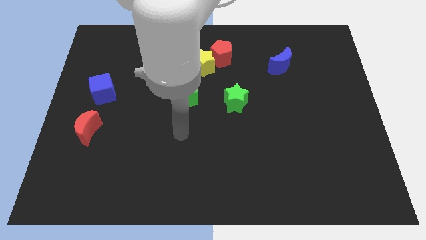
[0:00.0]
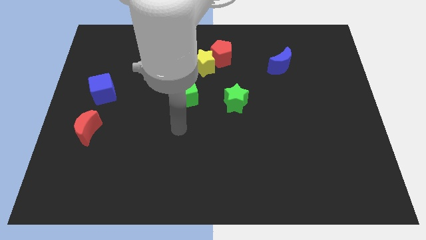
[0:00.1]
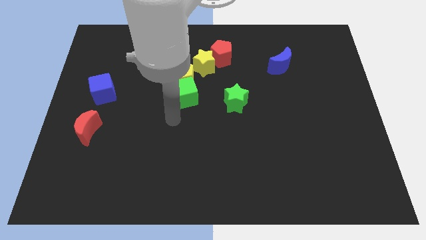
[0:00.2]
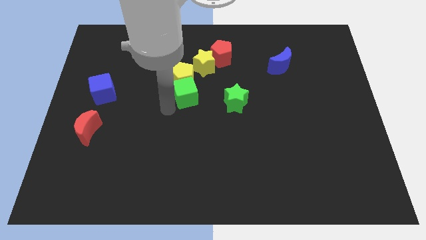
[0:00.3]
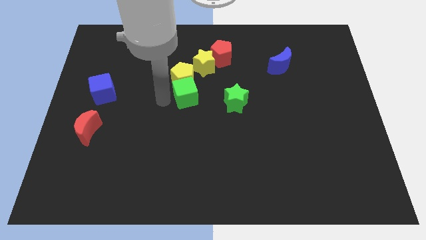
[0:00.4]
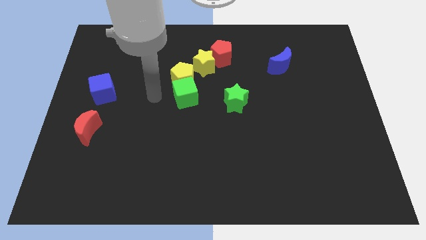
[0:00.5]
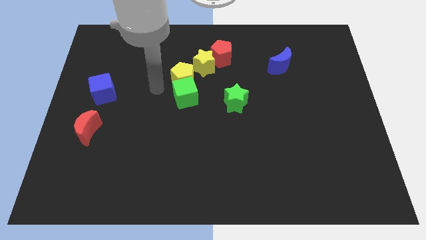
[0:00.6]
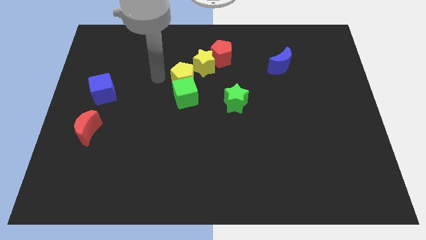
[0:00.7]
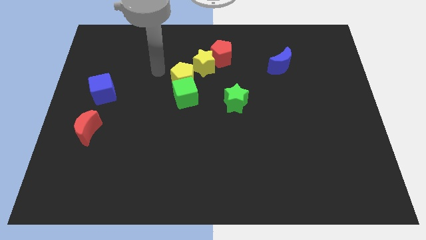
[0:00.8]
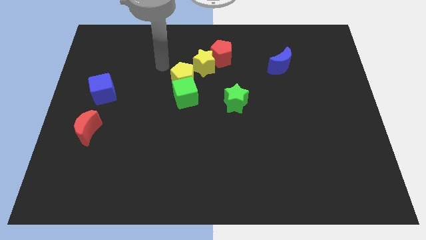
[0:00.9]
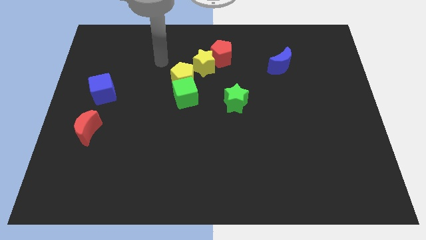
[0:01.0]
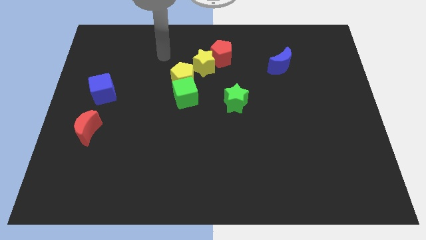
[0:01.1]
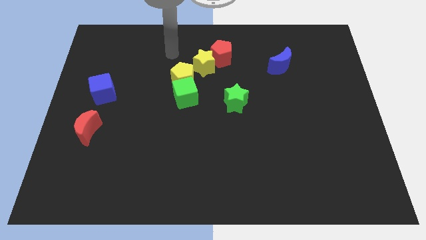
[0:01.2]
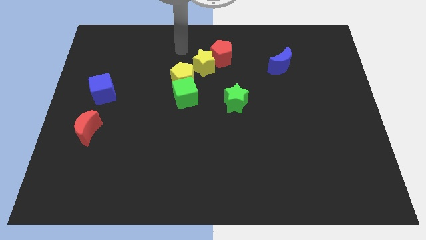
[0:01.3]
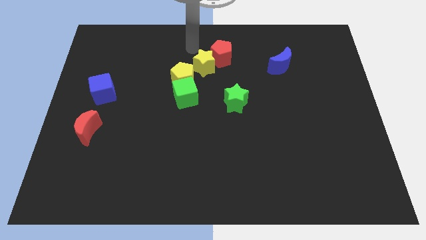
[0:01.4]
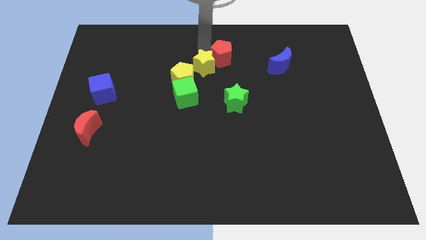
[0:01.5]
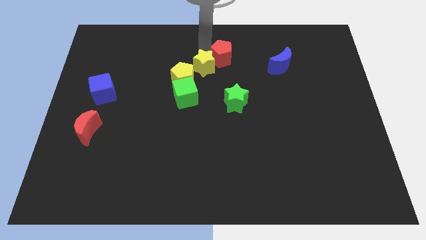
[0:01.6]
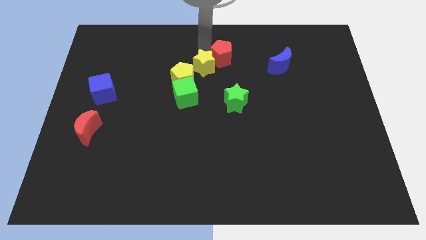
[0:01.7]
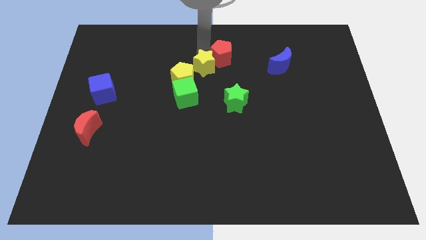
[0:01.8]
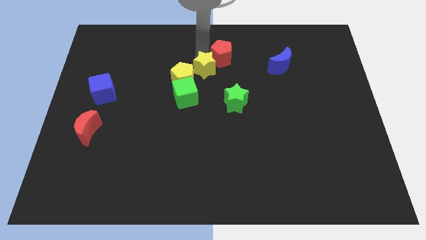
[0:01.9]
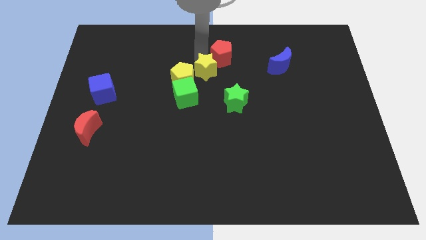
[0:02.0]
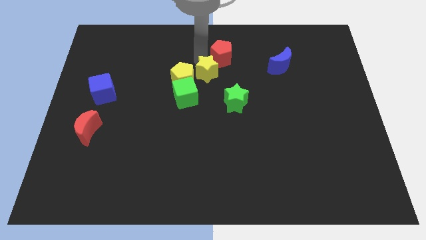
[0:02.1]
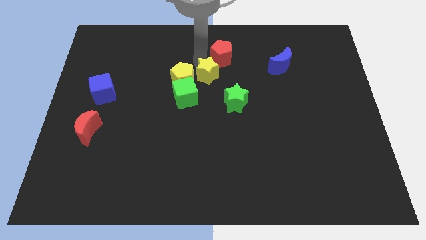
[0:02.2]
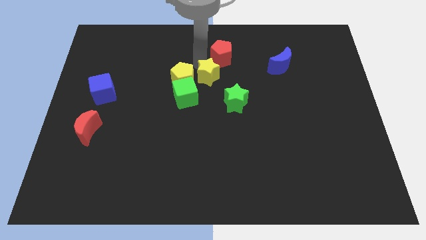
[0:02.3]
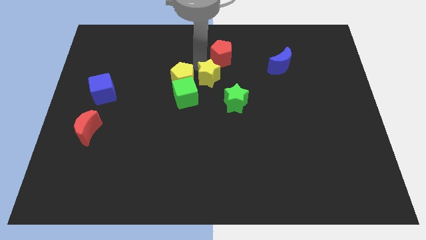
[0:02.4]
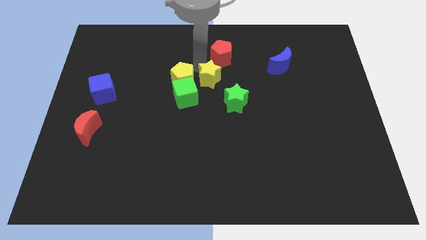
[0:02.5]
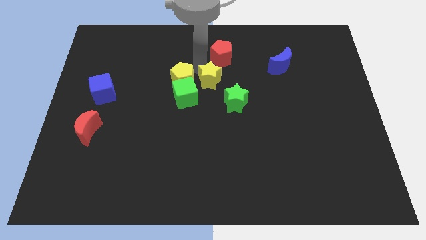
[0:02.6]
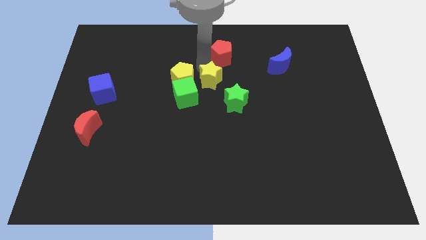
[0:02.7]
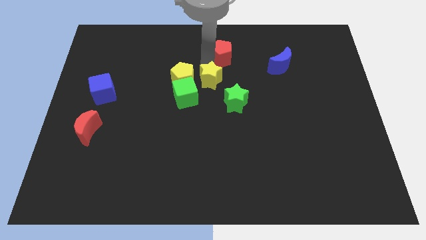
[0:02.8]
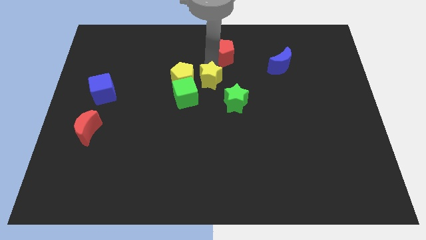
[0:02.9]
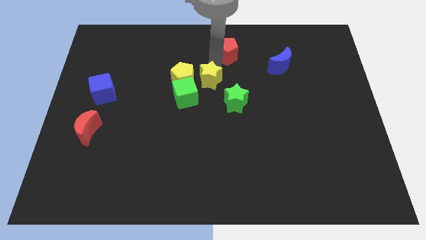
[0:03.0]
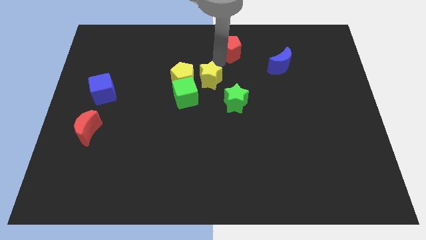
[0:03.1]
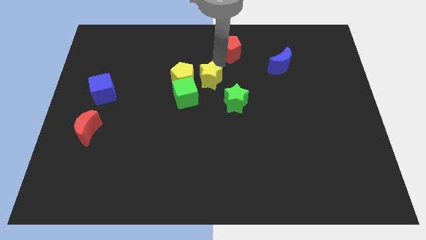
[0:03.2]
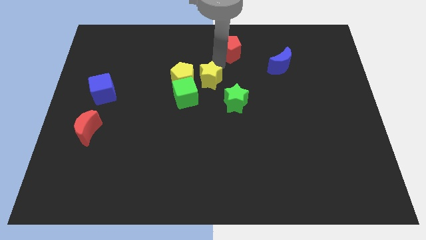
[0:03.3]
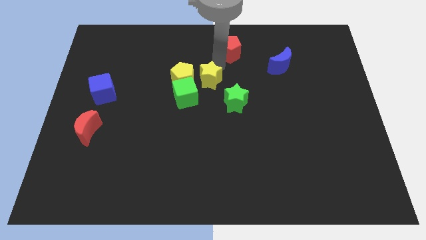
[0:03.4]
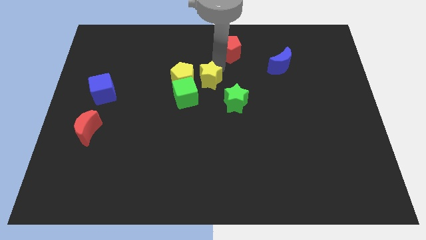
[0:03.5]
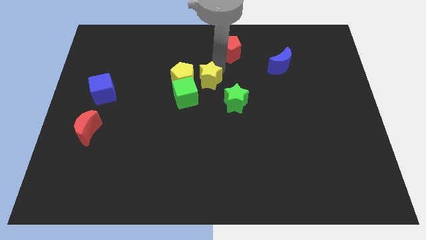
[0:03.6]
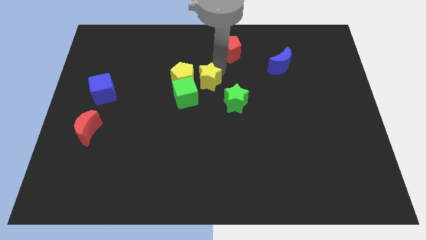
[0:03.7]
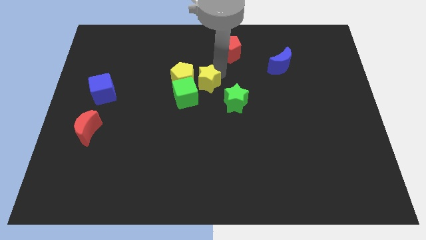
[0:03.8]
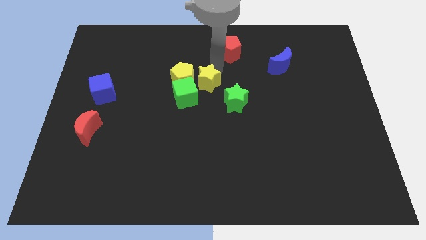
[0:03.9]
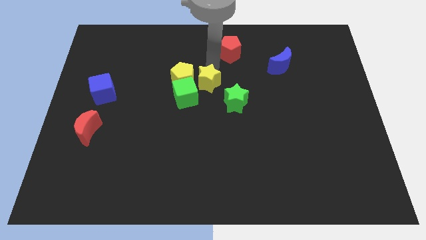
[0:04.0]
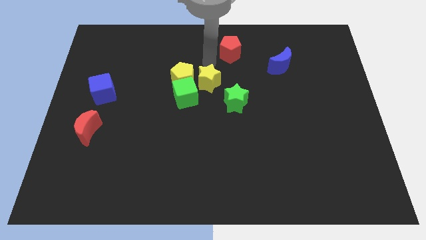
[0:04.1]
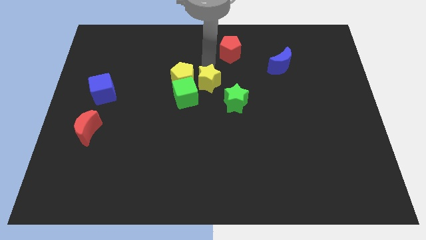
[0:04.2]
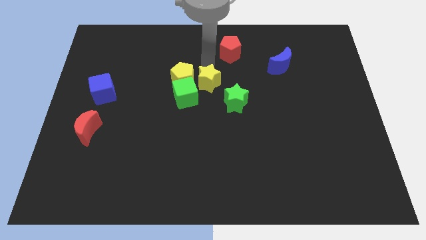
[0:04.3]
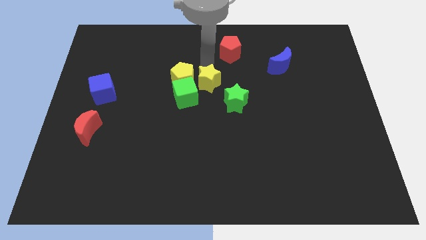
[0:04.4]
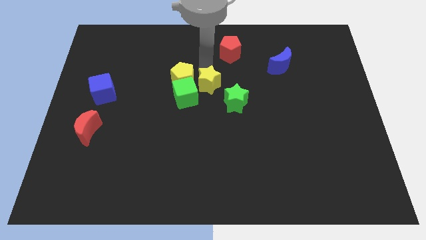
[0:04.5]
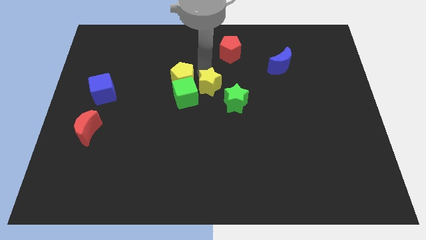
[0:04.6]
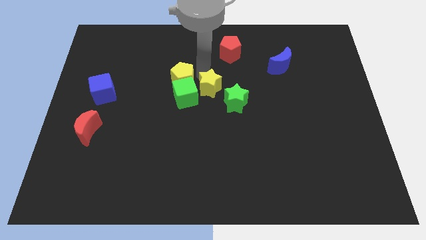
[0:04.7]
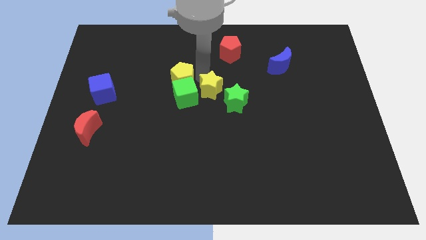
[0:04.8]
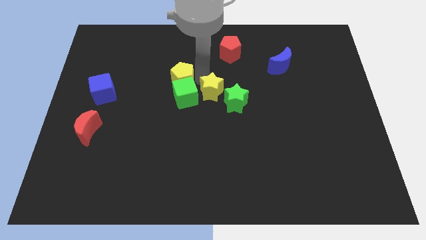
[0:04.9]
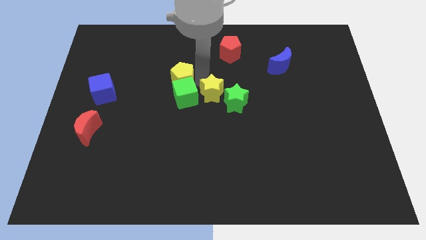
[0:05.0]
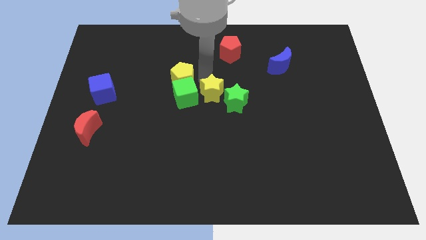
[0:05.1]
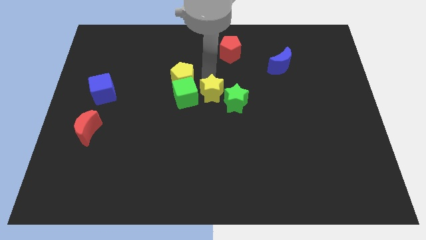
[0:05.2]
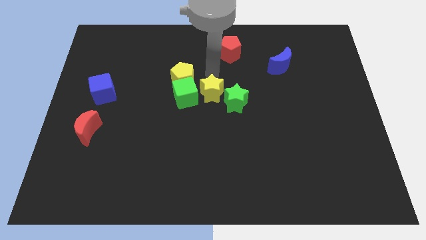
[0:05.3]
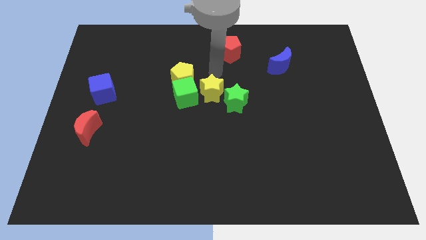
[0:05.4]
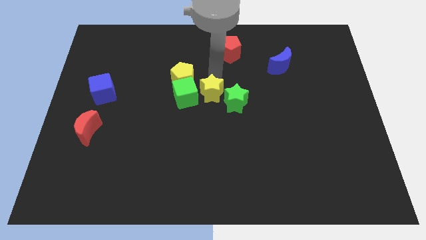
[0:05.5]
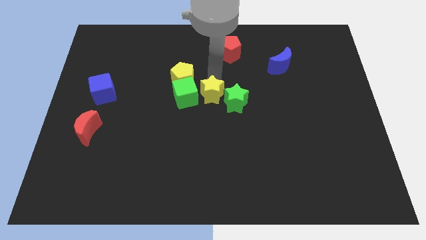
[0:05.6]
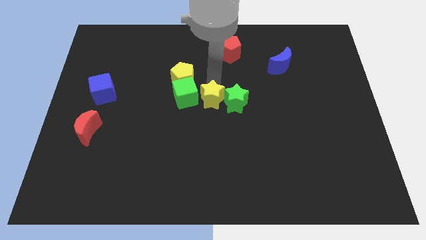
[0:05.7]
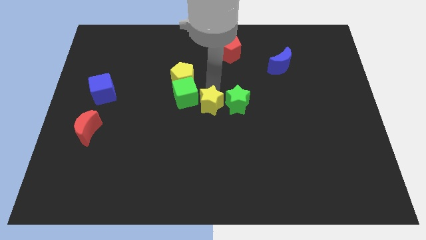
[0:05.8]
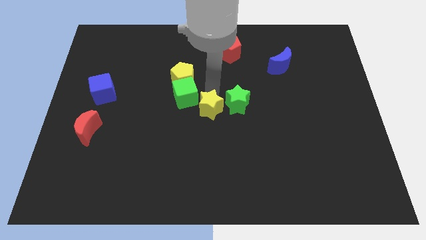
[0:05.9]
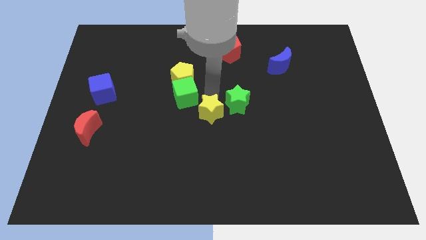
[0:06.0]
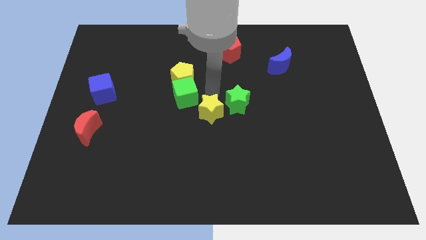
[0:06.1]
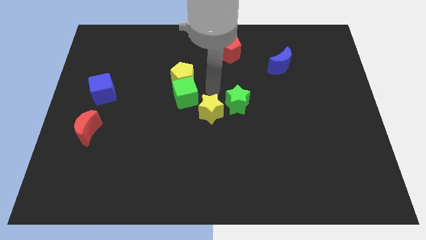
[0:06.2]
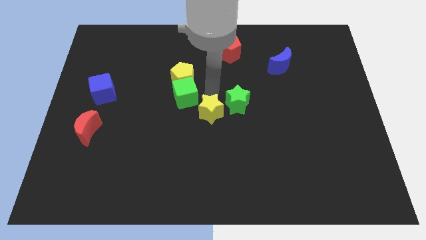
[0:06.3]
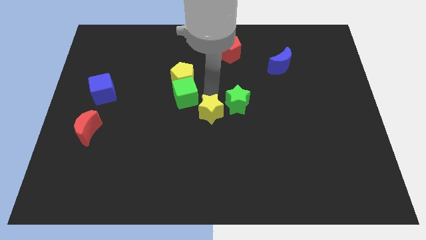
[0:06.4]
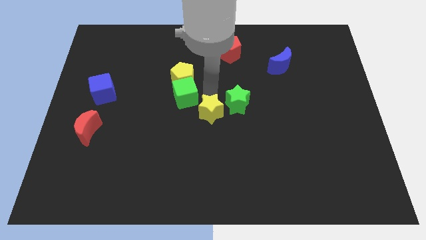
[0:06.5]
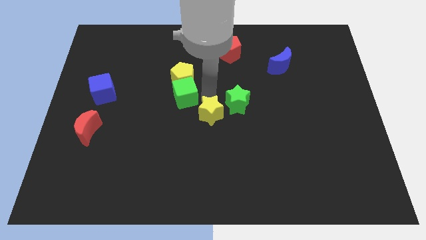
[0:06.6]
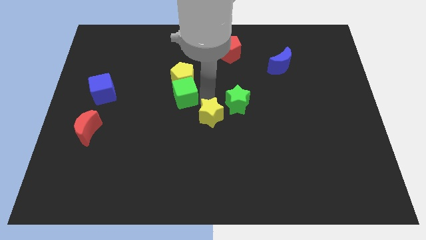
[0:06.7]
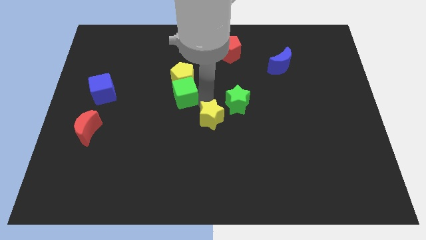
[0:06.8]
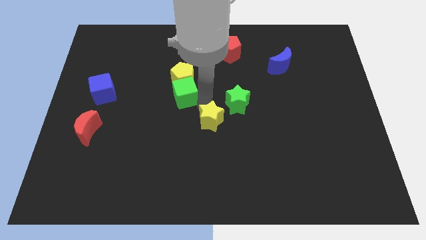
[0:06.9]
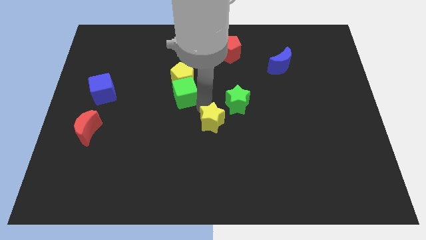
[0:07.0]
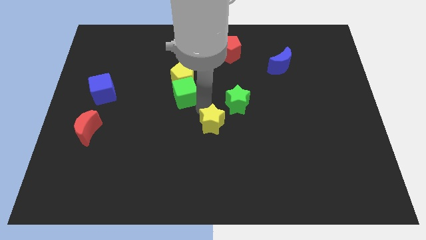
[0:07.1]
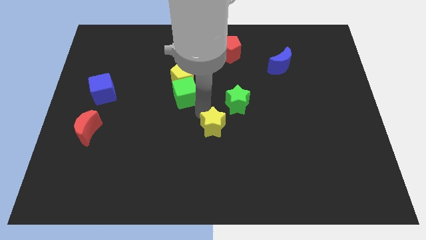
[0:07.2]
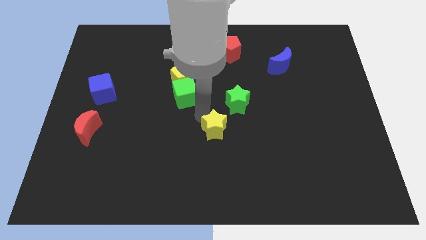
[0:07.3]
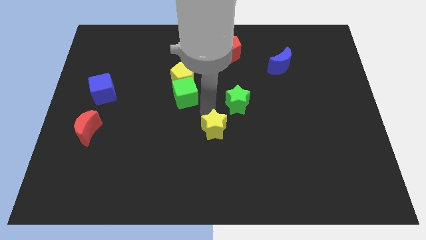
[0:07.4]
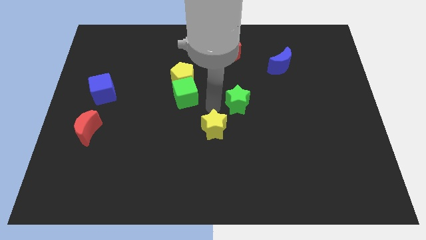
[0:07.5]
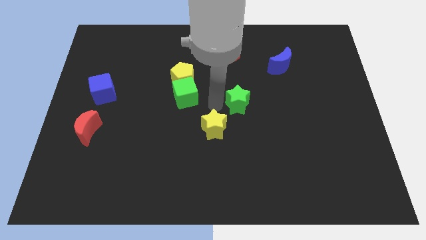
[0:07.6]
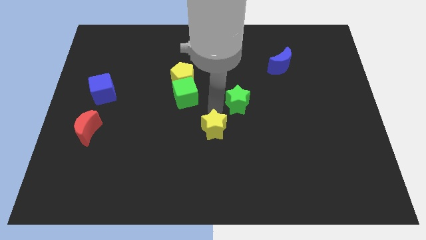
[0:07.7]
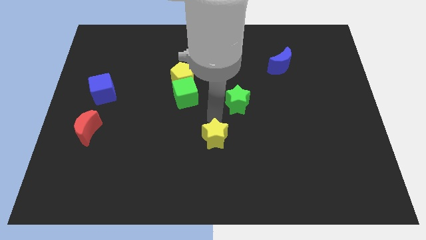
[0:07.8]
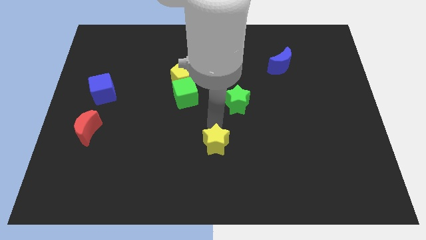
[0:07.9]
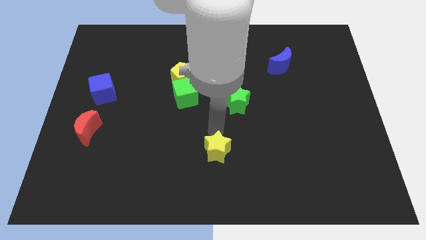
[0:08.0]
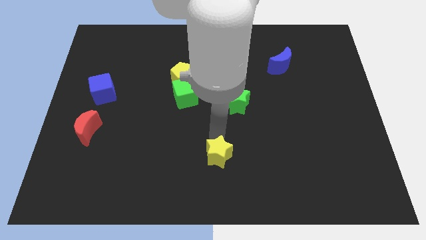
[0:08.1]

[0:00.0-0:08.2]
push the yellow star to the bottom side
